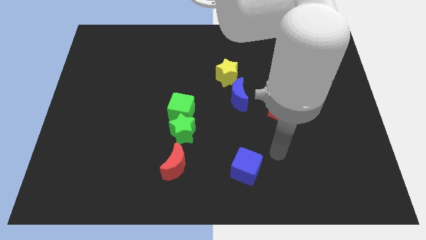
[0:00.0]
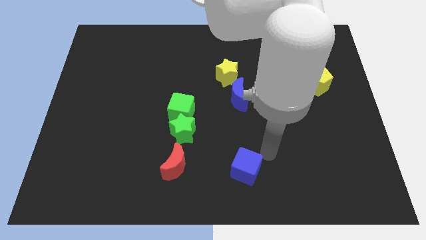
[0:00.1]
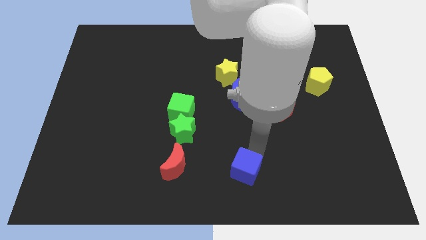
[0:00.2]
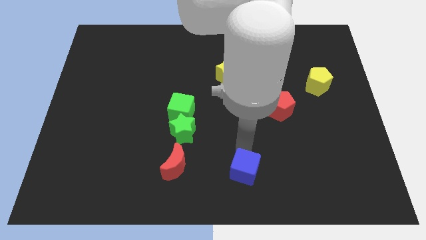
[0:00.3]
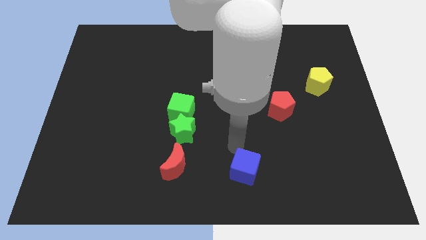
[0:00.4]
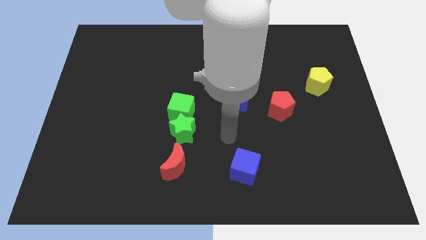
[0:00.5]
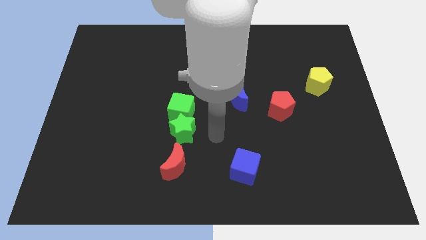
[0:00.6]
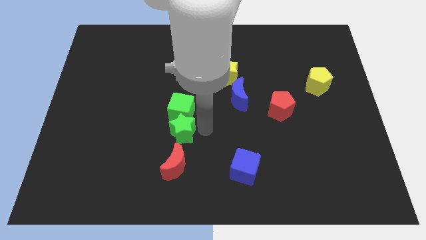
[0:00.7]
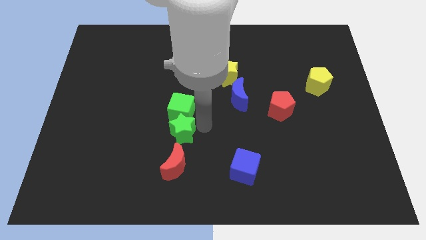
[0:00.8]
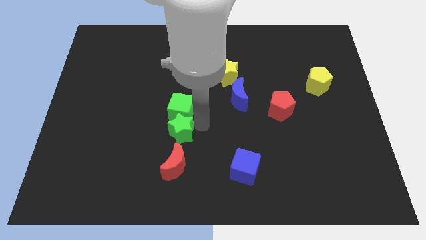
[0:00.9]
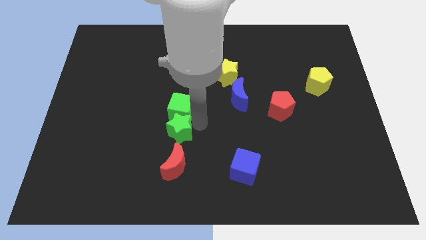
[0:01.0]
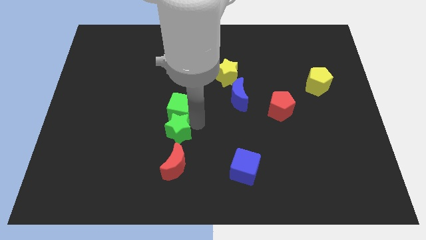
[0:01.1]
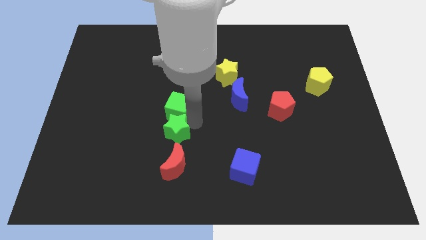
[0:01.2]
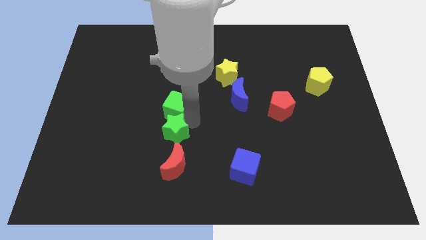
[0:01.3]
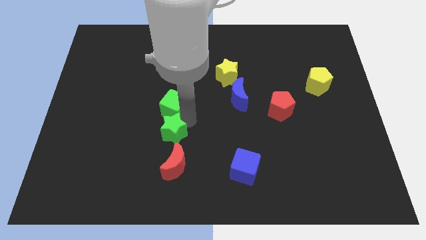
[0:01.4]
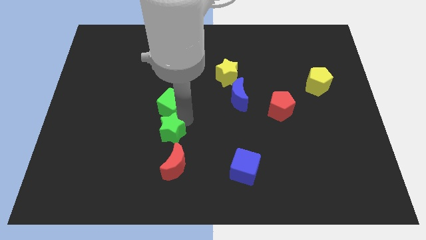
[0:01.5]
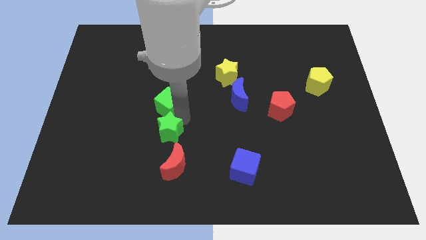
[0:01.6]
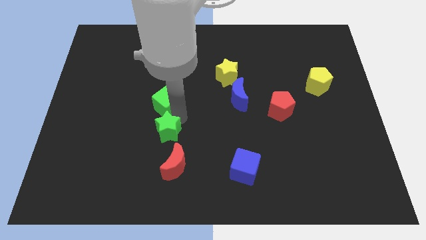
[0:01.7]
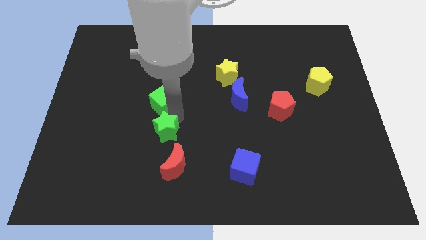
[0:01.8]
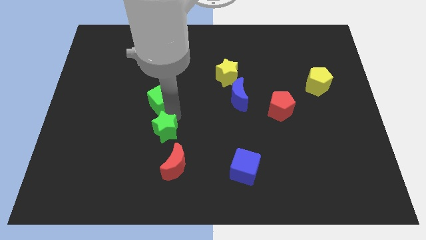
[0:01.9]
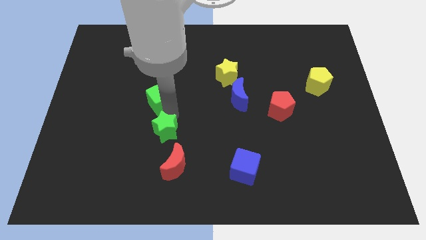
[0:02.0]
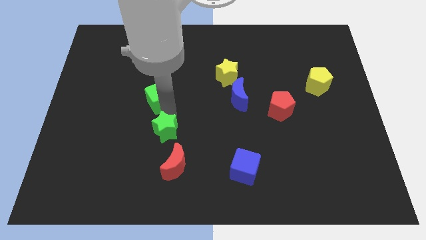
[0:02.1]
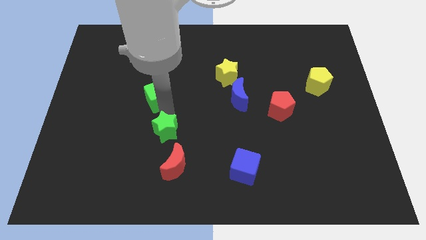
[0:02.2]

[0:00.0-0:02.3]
slightly slide the green cube diagonally upwards and left

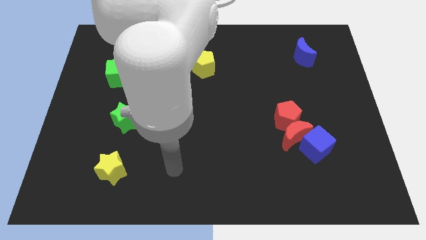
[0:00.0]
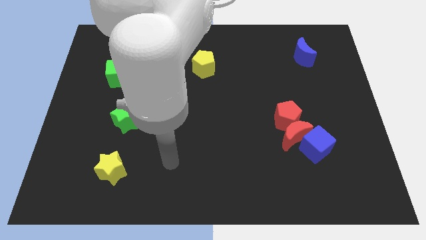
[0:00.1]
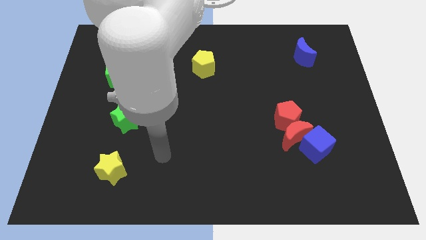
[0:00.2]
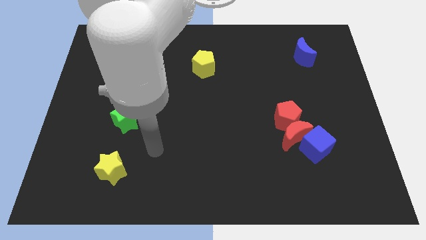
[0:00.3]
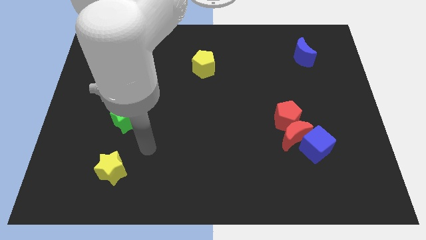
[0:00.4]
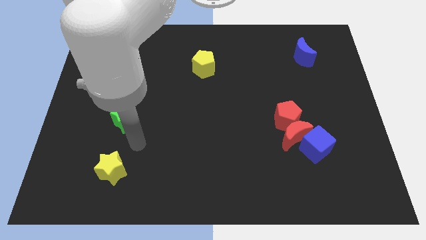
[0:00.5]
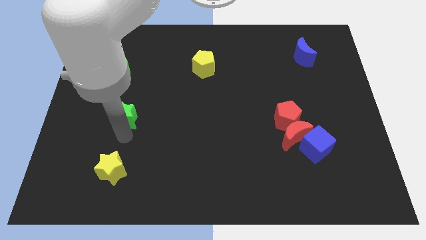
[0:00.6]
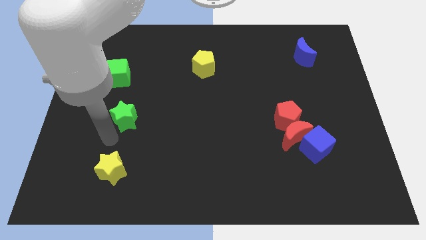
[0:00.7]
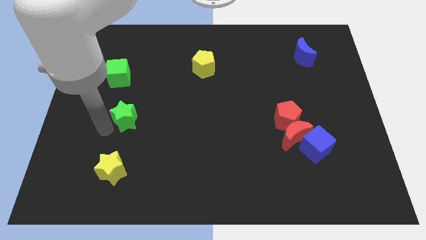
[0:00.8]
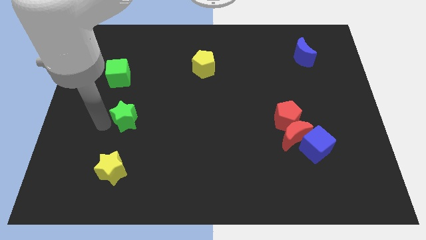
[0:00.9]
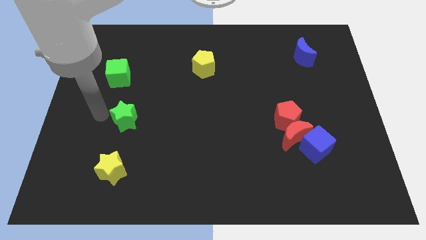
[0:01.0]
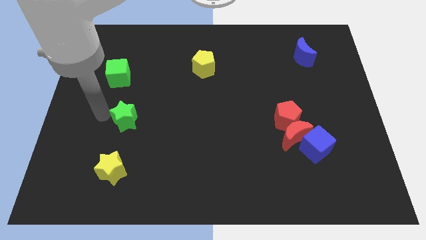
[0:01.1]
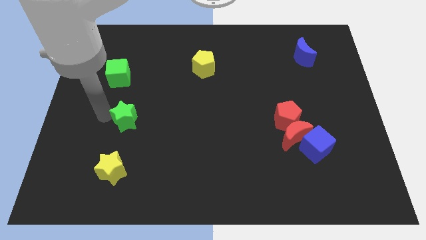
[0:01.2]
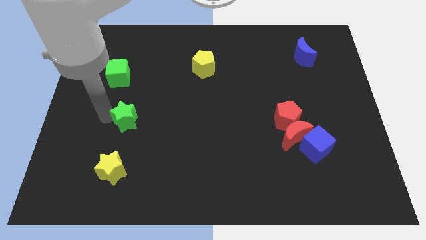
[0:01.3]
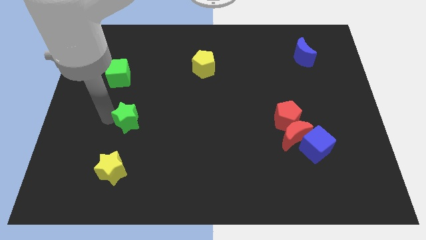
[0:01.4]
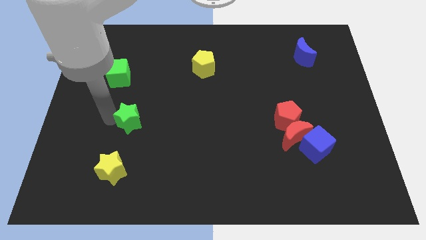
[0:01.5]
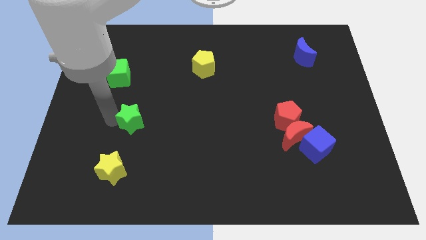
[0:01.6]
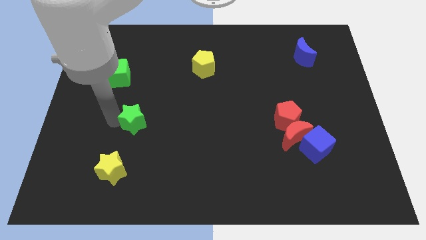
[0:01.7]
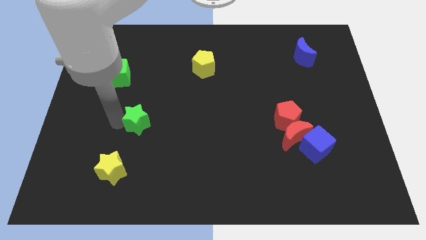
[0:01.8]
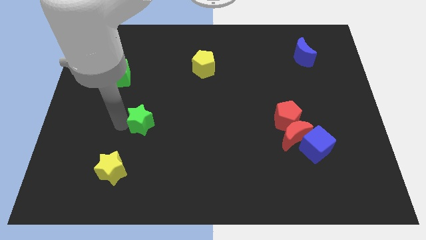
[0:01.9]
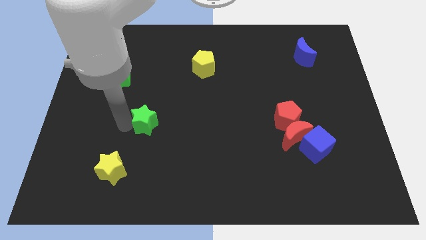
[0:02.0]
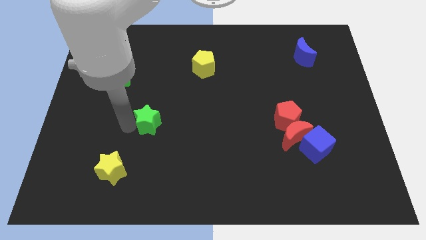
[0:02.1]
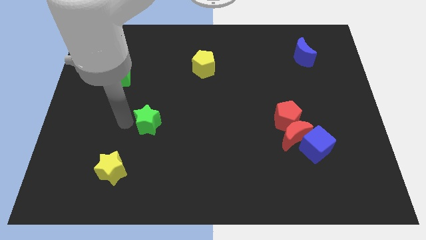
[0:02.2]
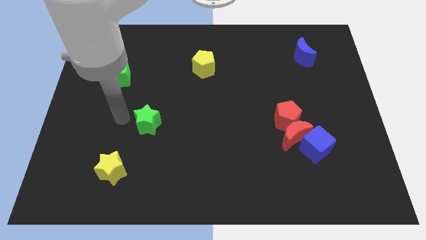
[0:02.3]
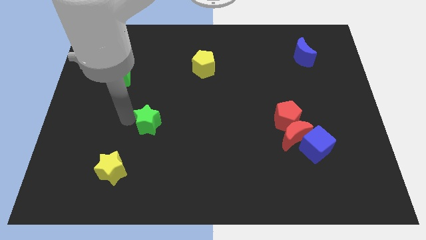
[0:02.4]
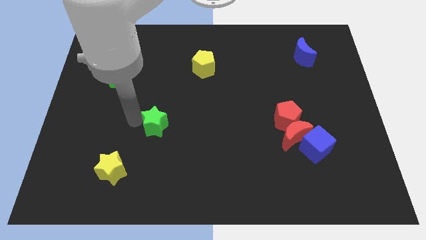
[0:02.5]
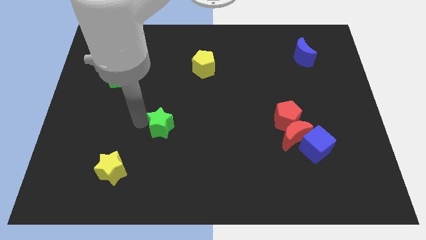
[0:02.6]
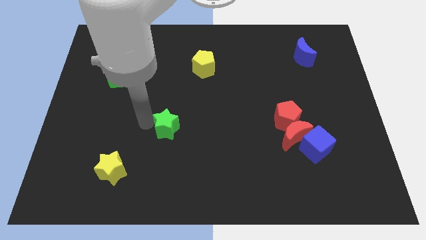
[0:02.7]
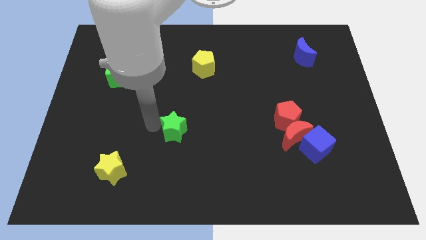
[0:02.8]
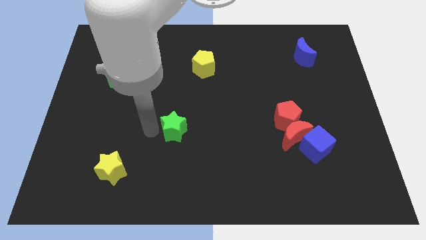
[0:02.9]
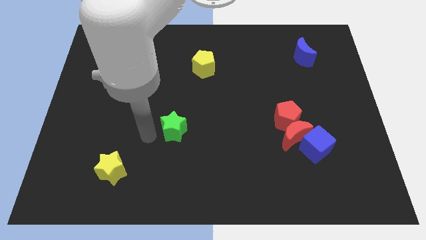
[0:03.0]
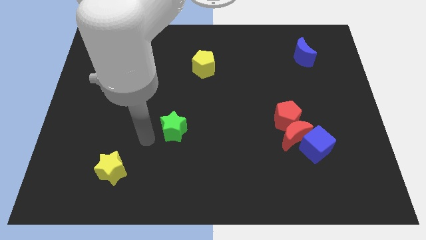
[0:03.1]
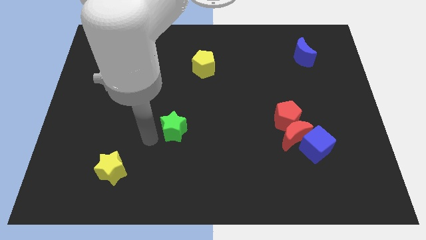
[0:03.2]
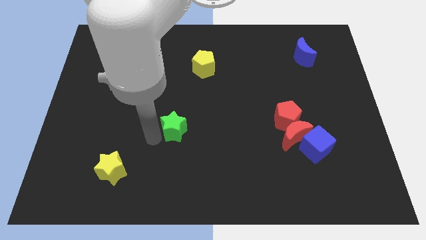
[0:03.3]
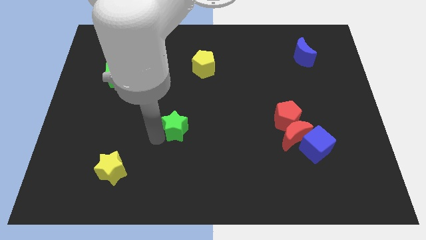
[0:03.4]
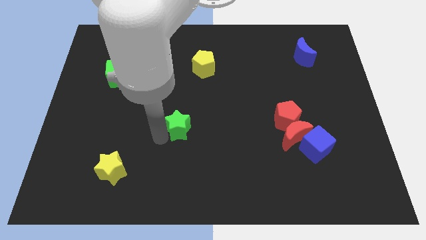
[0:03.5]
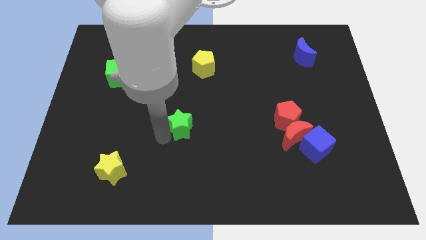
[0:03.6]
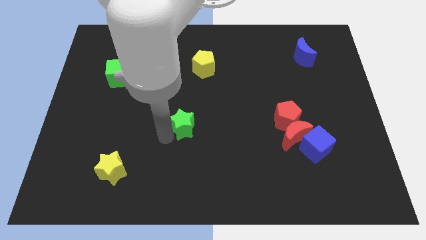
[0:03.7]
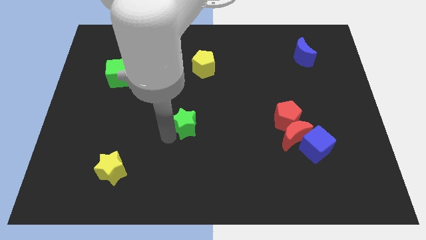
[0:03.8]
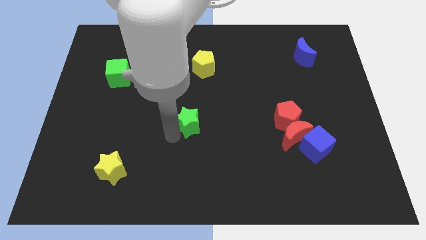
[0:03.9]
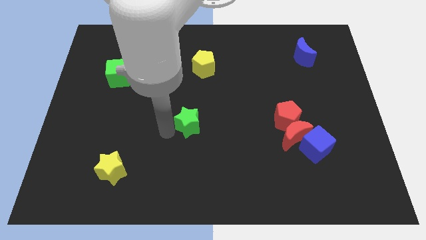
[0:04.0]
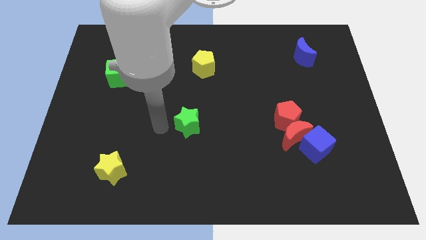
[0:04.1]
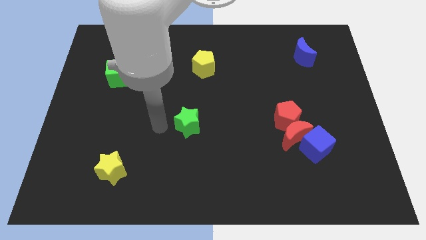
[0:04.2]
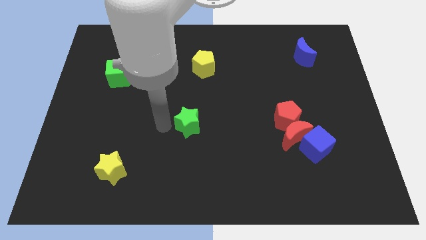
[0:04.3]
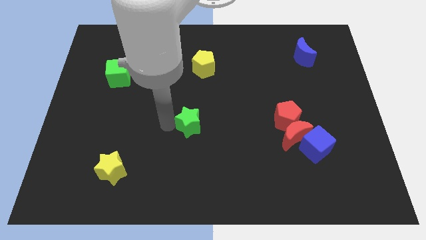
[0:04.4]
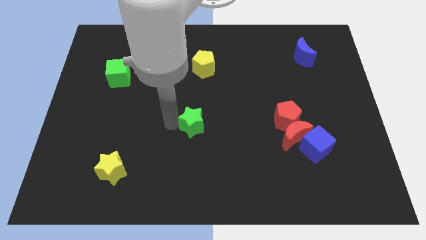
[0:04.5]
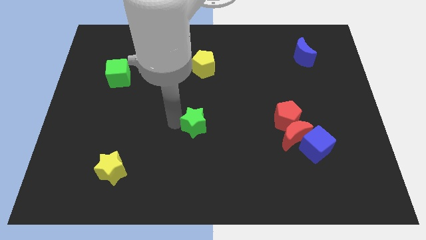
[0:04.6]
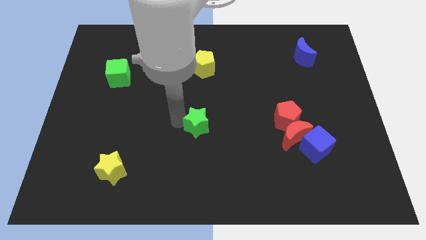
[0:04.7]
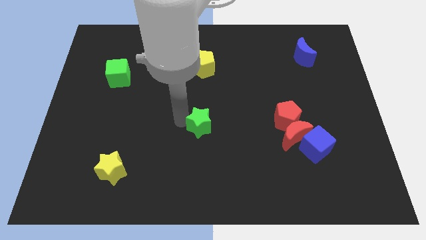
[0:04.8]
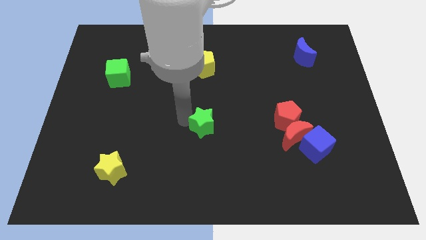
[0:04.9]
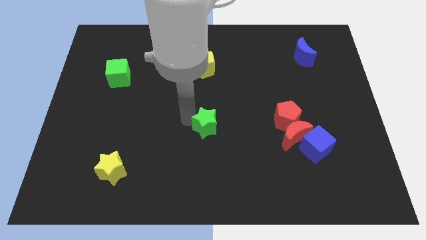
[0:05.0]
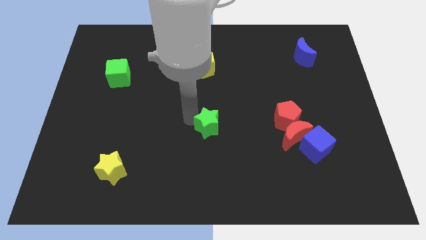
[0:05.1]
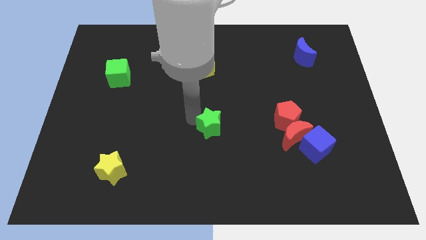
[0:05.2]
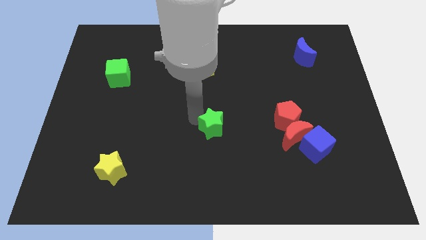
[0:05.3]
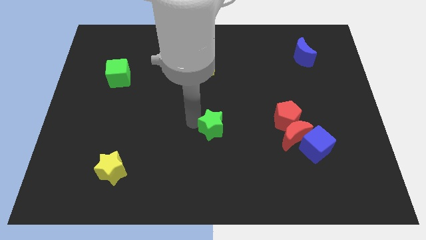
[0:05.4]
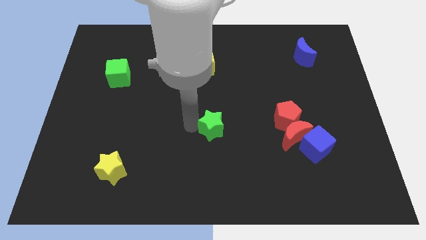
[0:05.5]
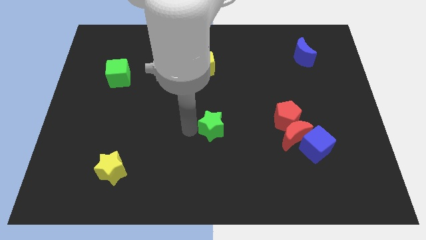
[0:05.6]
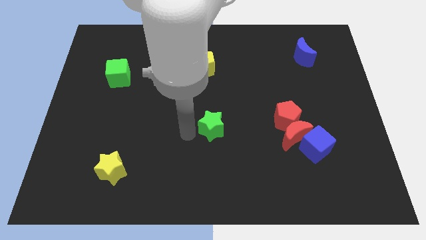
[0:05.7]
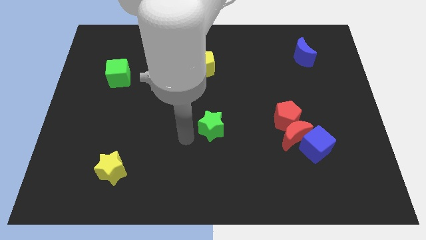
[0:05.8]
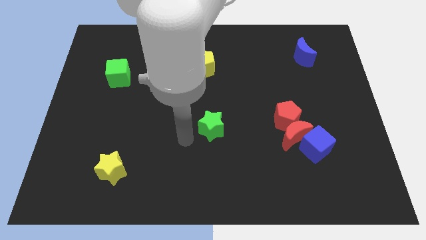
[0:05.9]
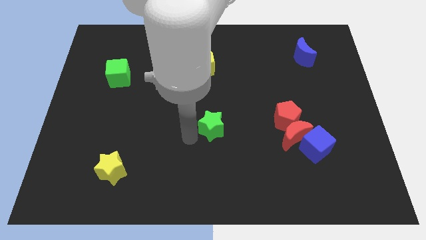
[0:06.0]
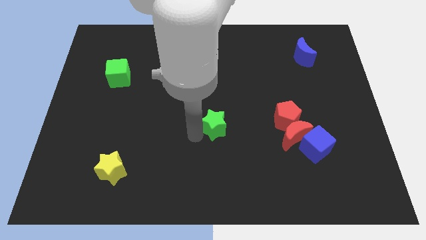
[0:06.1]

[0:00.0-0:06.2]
push the green star to the right
